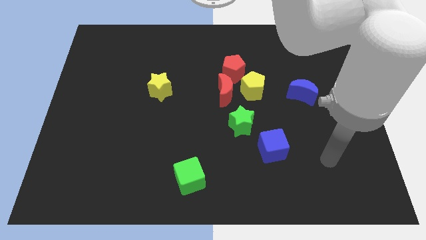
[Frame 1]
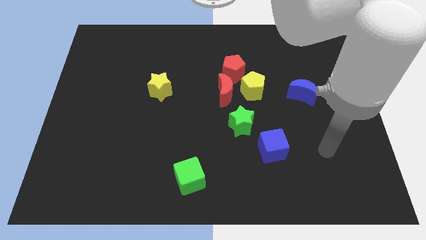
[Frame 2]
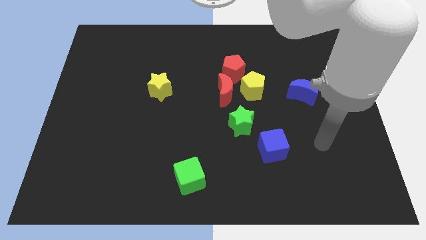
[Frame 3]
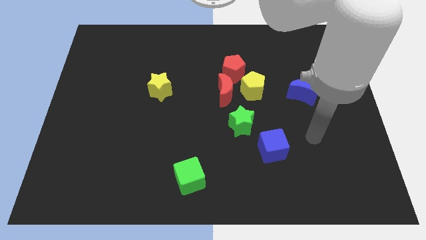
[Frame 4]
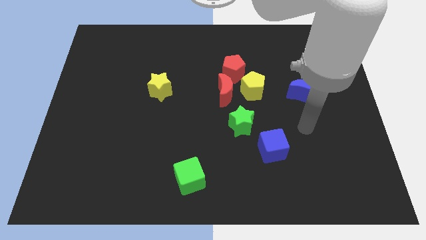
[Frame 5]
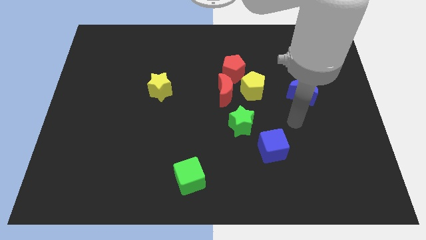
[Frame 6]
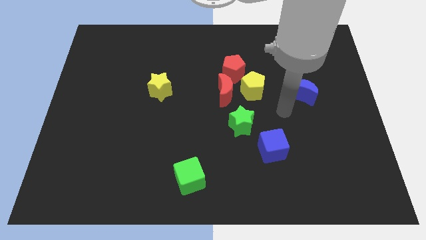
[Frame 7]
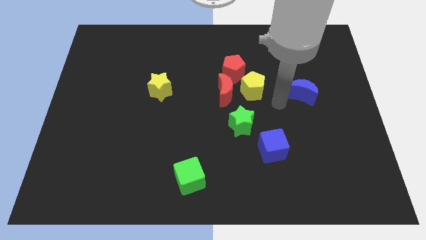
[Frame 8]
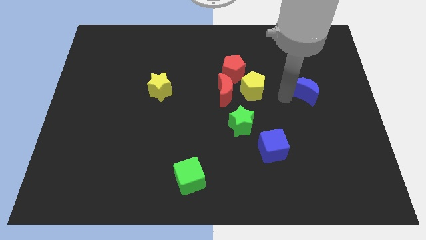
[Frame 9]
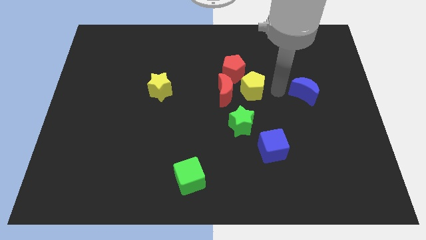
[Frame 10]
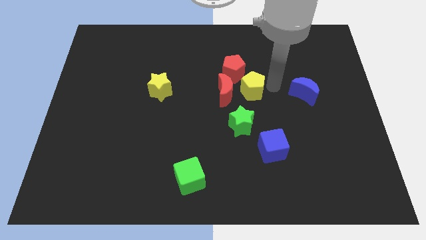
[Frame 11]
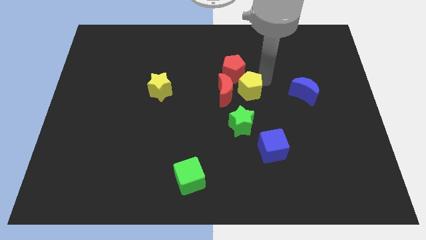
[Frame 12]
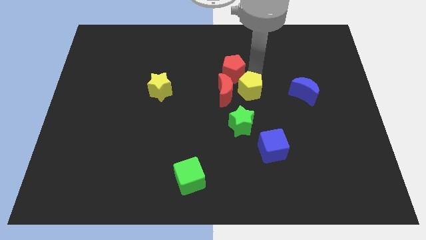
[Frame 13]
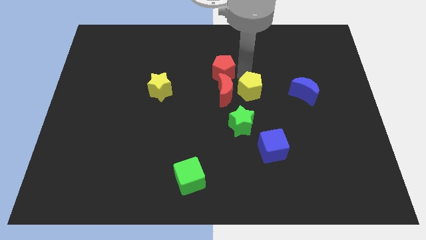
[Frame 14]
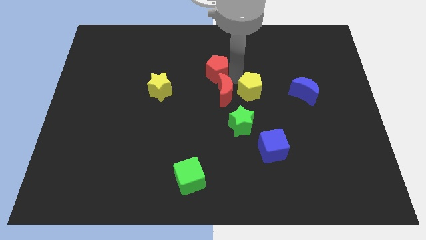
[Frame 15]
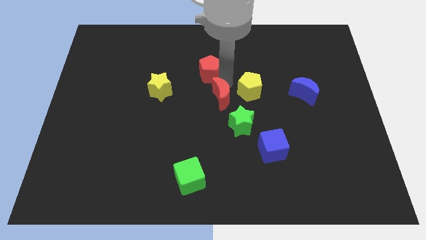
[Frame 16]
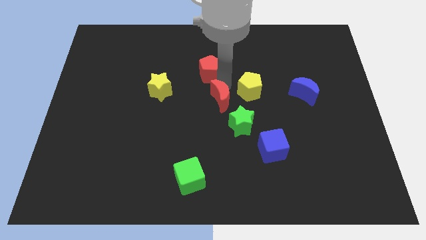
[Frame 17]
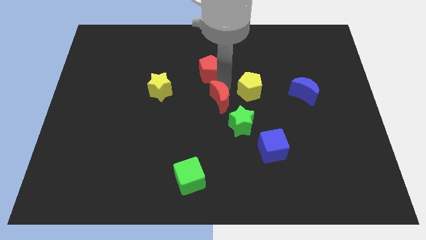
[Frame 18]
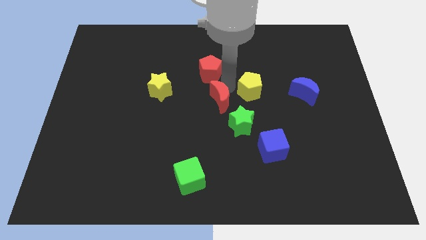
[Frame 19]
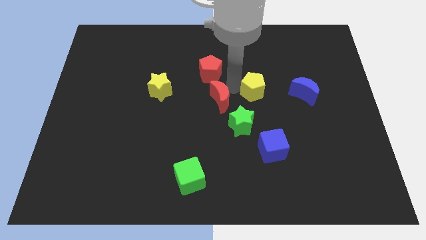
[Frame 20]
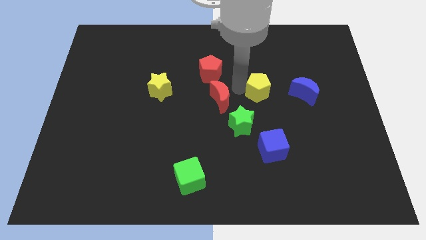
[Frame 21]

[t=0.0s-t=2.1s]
pull the yellow pentagon apart from the red moon and red pentagon

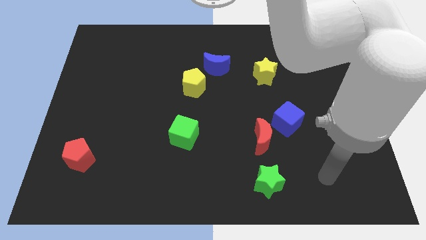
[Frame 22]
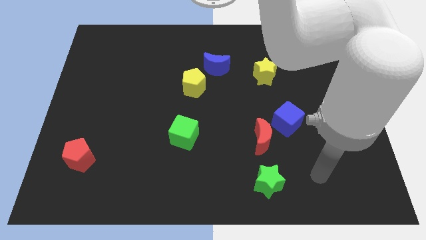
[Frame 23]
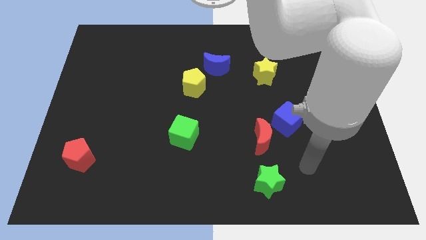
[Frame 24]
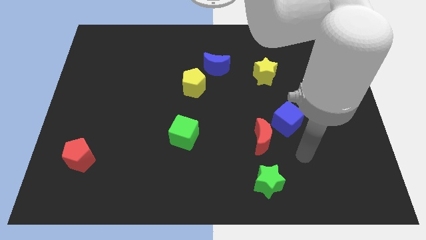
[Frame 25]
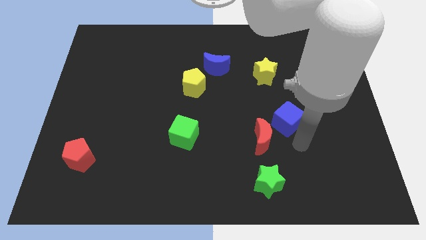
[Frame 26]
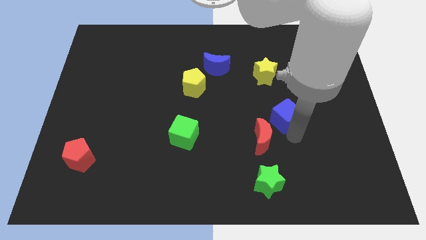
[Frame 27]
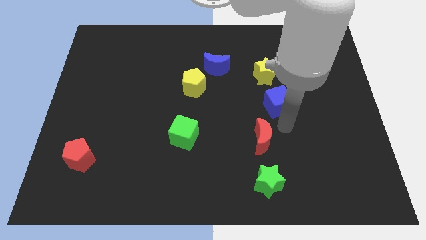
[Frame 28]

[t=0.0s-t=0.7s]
move the red moon away from the blue cube

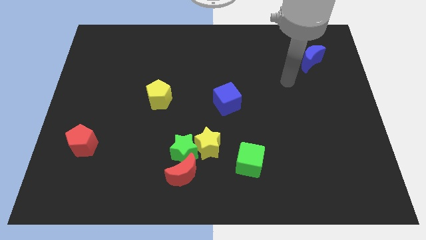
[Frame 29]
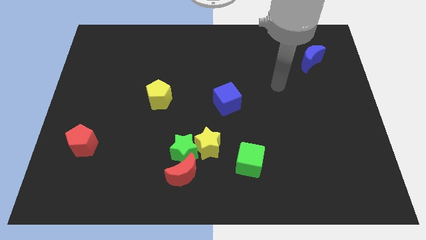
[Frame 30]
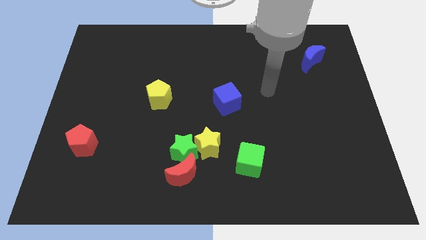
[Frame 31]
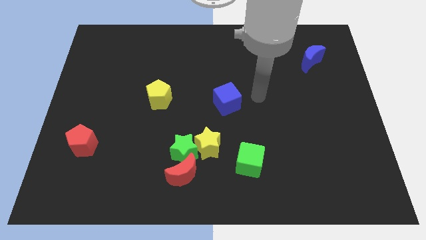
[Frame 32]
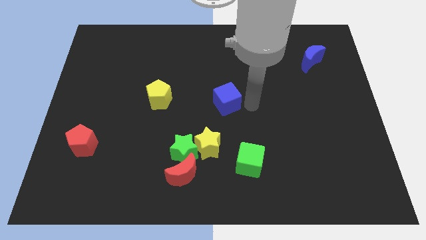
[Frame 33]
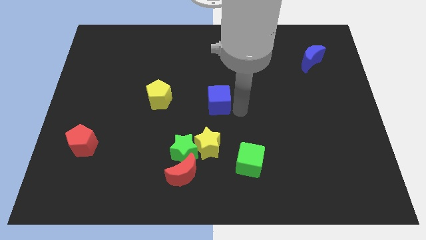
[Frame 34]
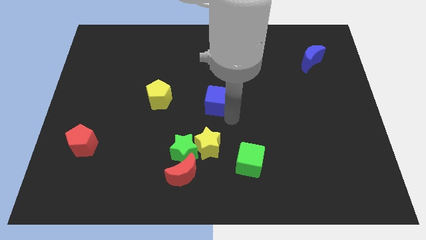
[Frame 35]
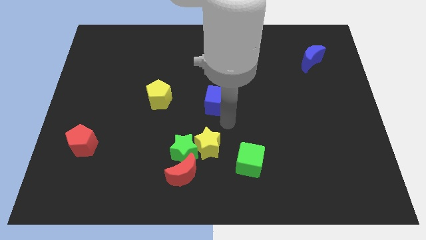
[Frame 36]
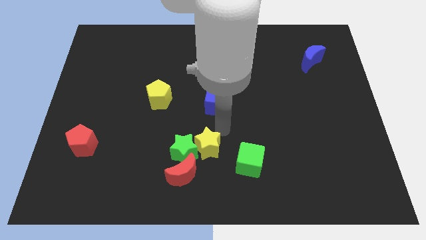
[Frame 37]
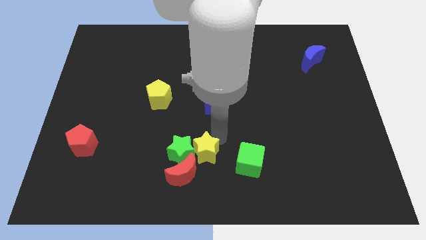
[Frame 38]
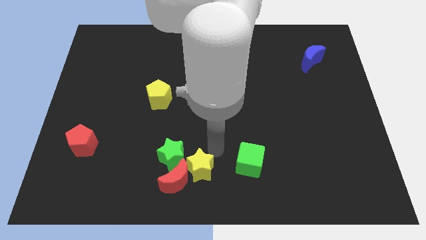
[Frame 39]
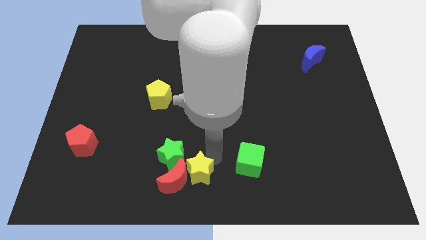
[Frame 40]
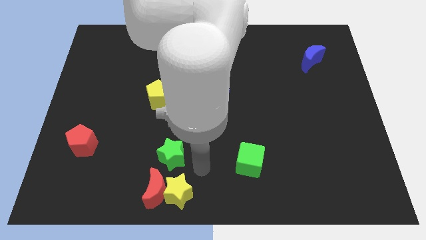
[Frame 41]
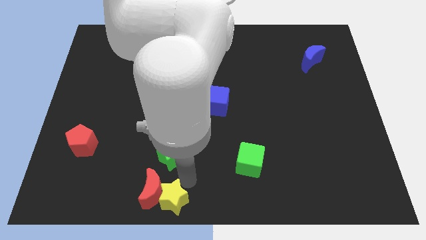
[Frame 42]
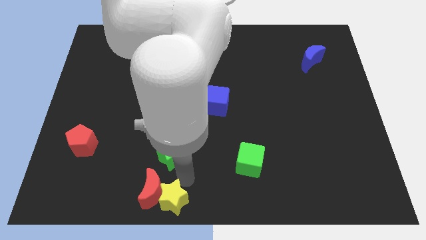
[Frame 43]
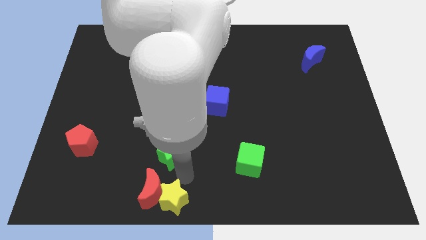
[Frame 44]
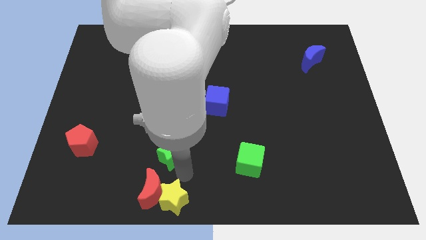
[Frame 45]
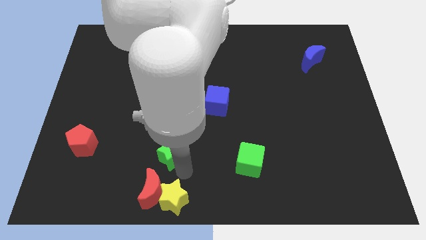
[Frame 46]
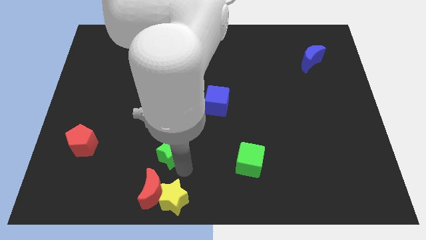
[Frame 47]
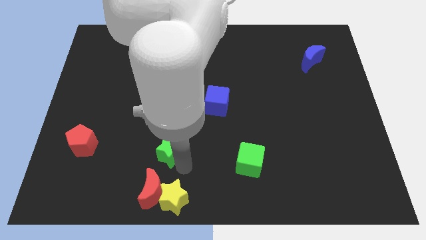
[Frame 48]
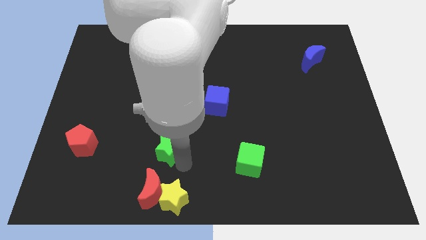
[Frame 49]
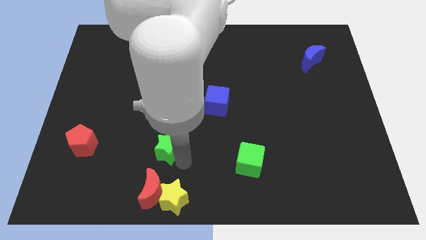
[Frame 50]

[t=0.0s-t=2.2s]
move the green star away from the red moon and yellow star

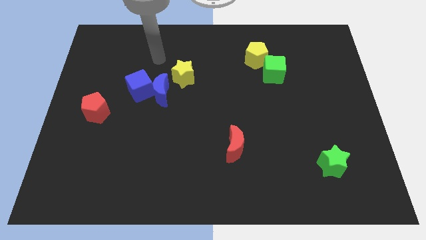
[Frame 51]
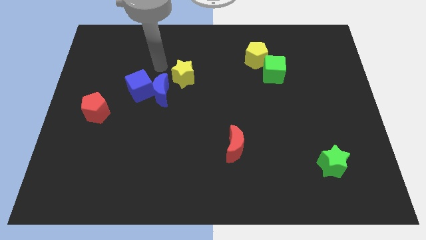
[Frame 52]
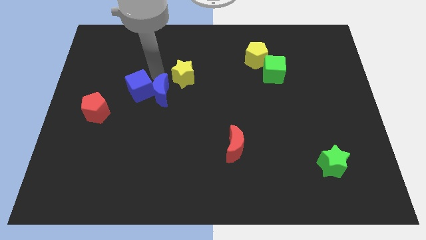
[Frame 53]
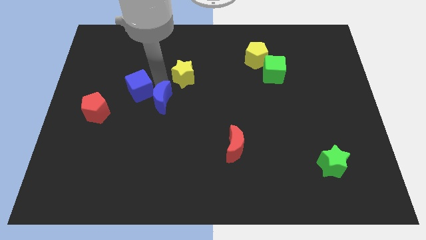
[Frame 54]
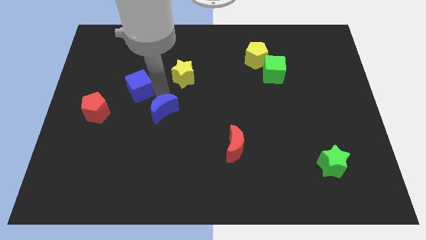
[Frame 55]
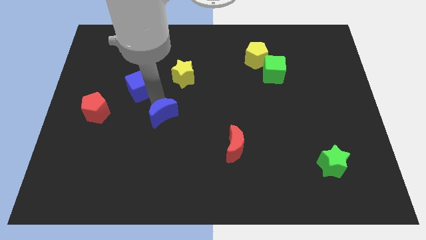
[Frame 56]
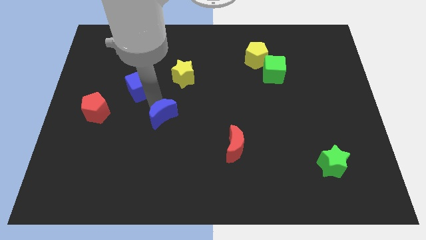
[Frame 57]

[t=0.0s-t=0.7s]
pull the blue cube apart from the blue moon

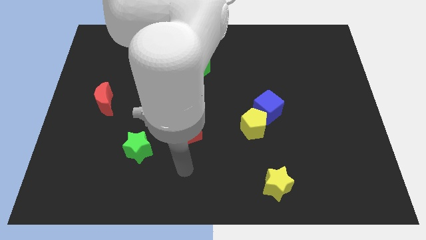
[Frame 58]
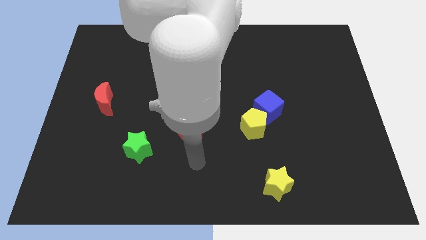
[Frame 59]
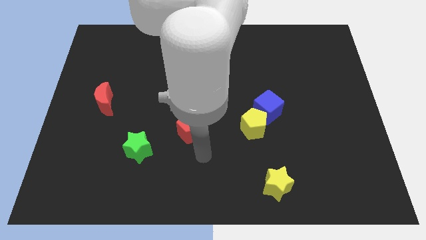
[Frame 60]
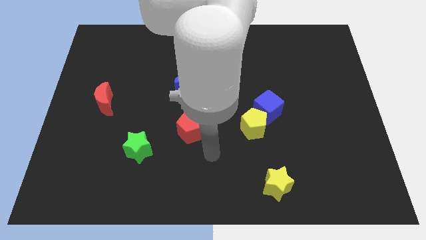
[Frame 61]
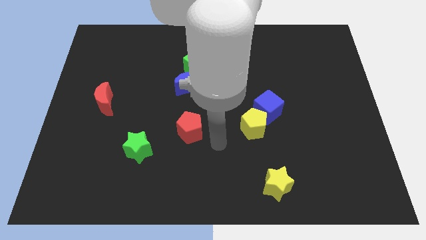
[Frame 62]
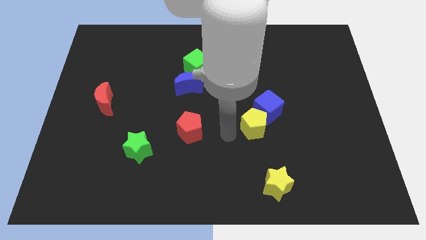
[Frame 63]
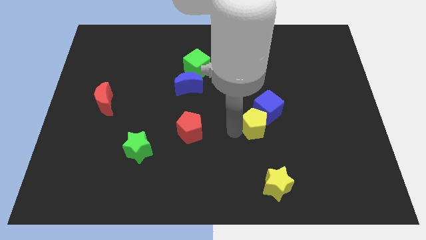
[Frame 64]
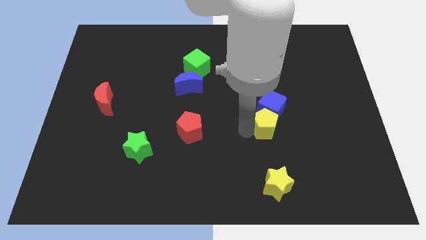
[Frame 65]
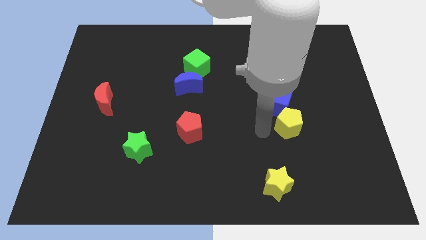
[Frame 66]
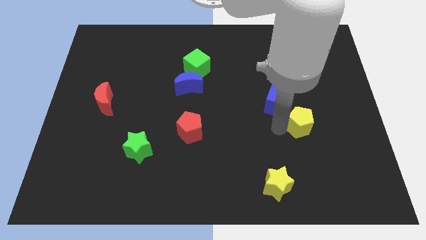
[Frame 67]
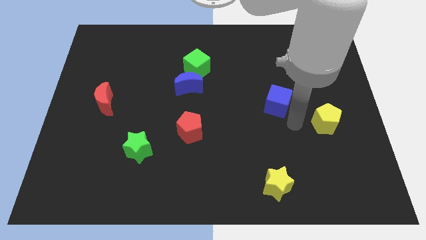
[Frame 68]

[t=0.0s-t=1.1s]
pull the blue cube apart from the yellow pentagon

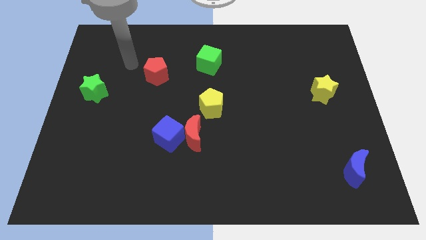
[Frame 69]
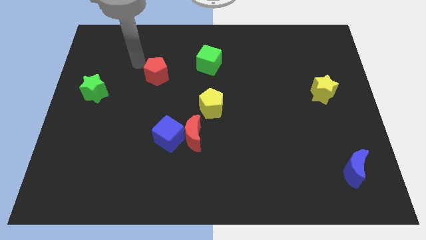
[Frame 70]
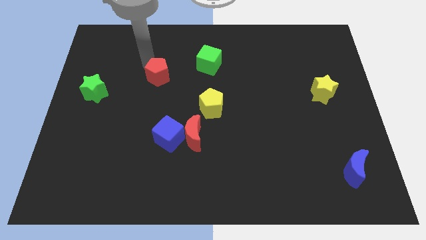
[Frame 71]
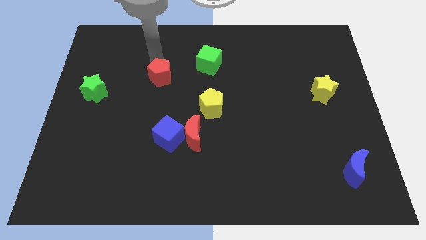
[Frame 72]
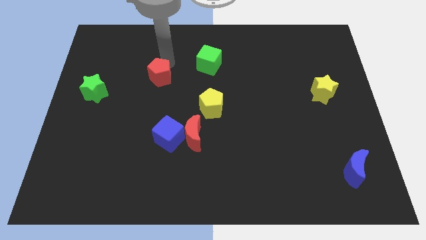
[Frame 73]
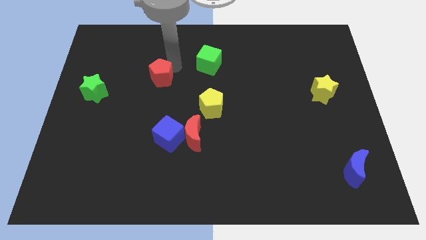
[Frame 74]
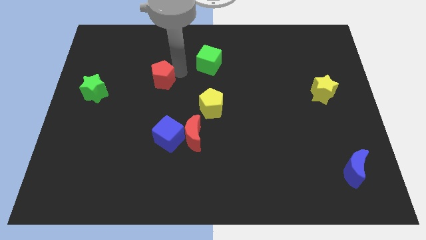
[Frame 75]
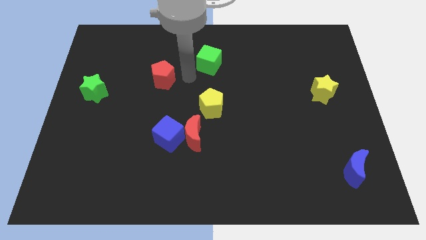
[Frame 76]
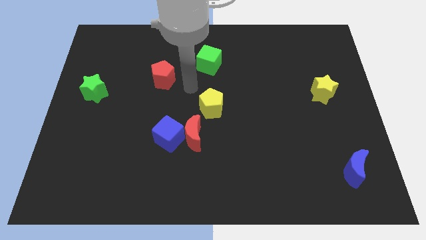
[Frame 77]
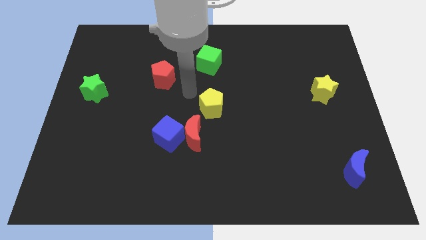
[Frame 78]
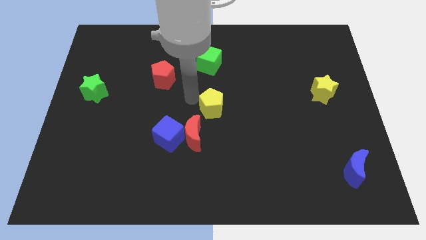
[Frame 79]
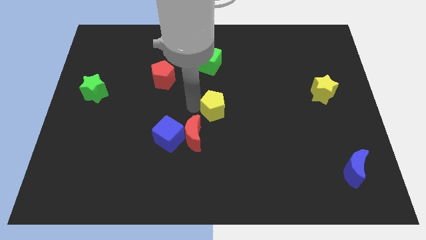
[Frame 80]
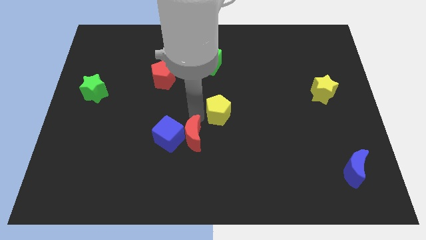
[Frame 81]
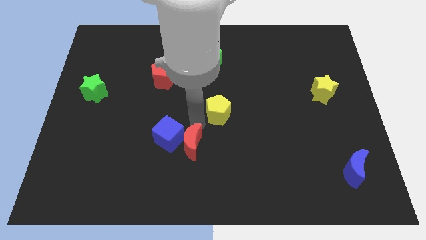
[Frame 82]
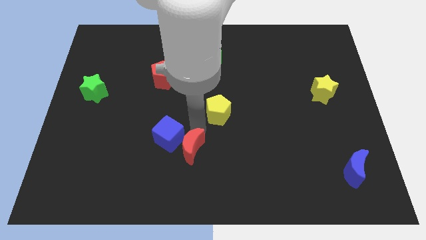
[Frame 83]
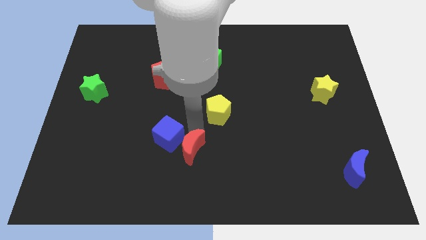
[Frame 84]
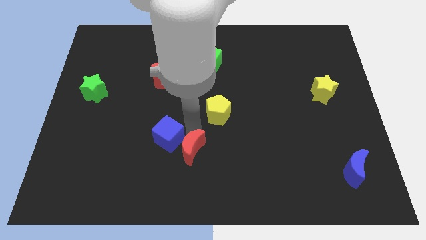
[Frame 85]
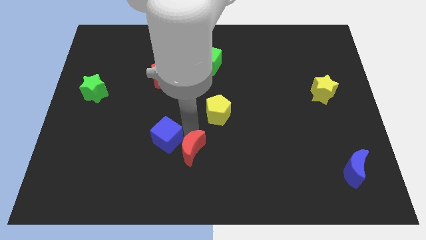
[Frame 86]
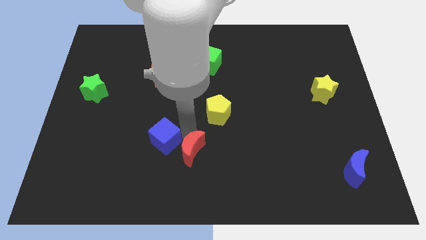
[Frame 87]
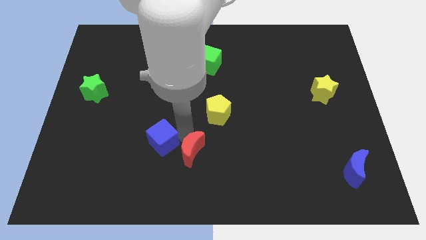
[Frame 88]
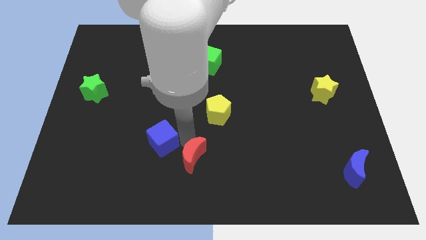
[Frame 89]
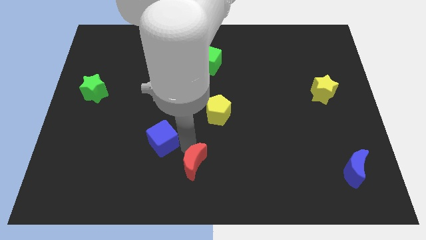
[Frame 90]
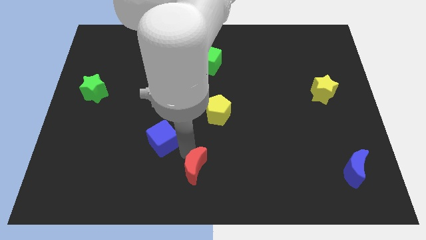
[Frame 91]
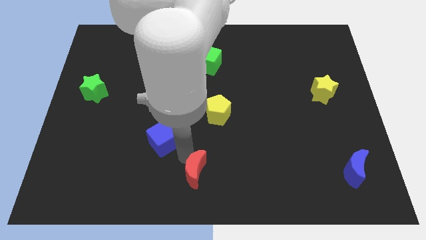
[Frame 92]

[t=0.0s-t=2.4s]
pull the blue cube apart from the red moon

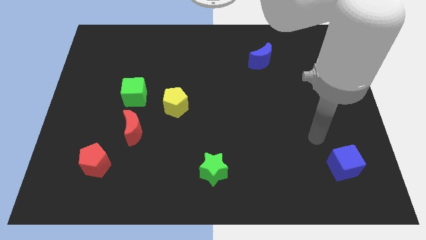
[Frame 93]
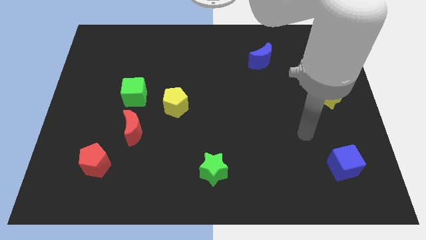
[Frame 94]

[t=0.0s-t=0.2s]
separate the red moon from the green cube
